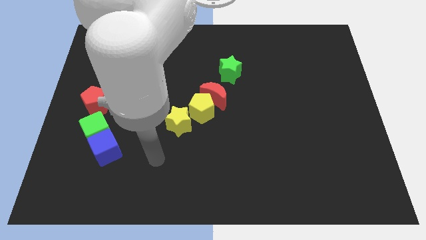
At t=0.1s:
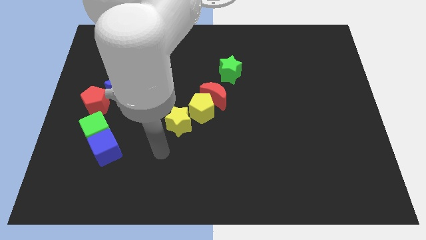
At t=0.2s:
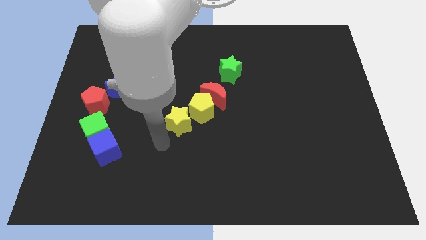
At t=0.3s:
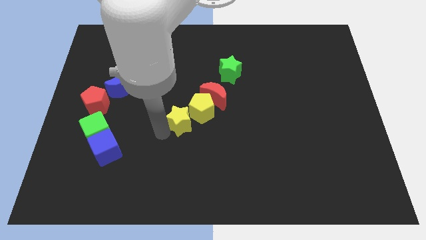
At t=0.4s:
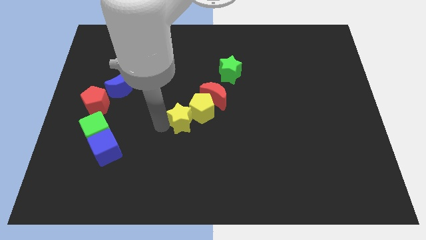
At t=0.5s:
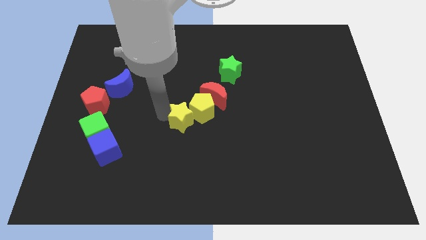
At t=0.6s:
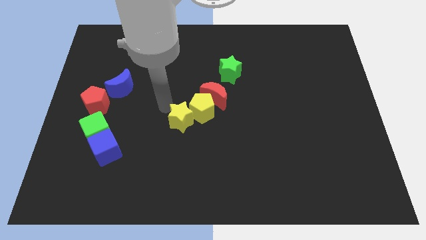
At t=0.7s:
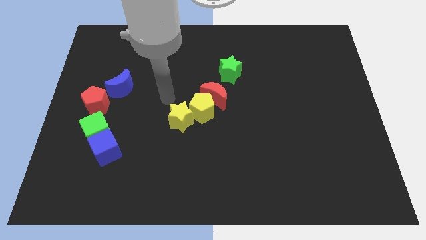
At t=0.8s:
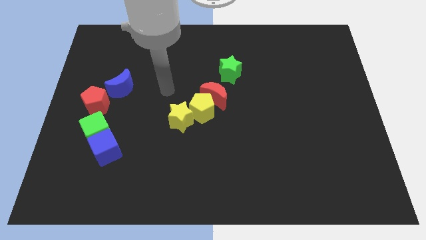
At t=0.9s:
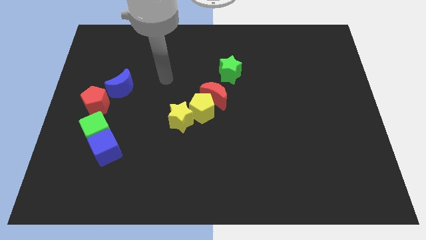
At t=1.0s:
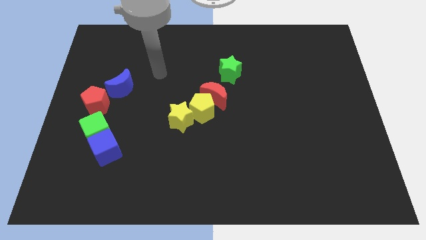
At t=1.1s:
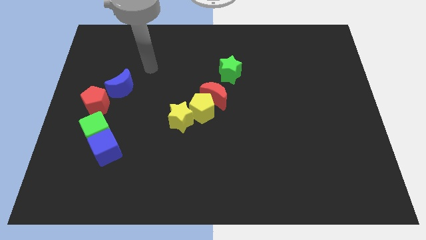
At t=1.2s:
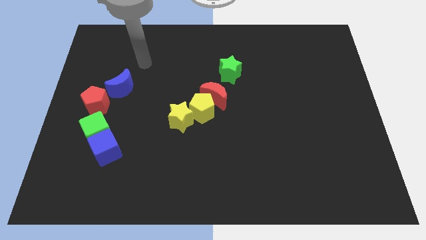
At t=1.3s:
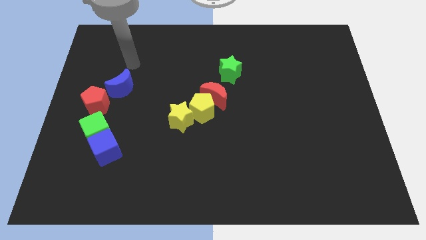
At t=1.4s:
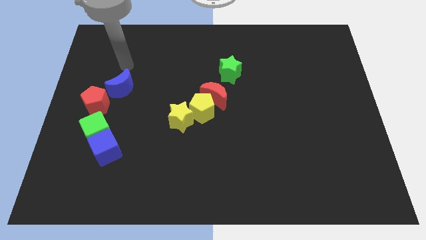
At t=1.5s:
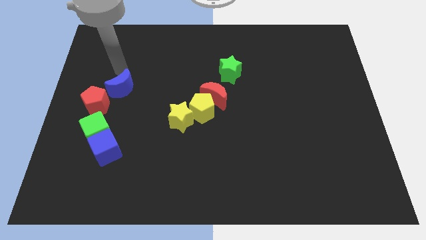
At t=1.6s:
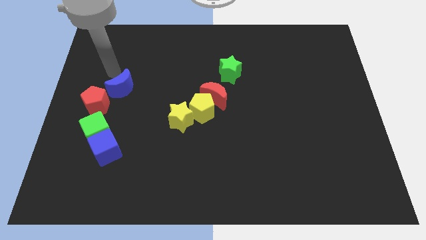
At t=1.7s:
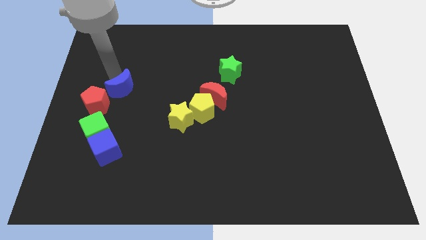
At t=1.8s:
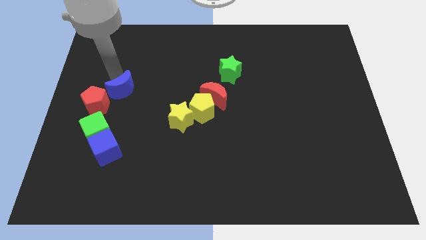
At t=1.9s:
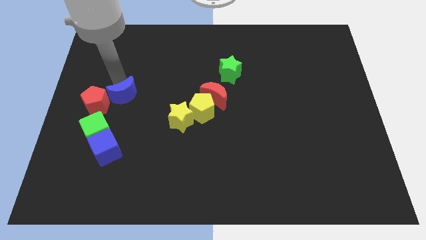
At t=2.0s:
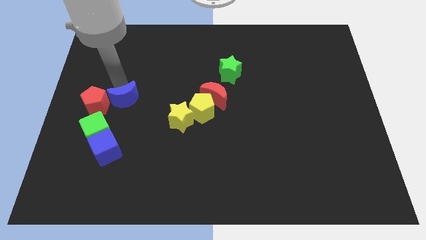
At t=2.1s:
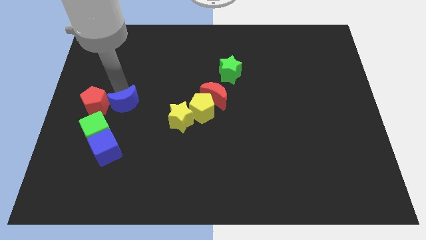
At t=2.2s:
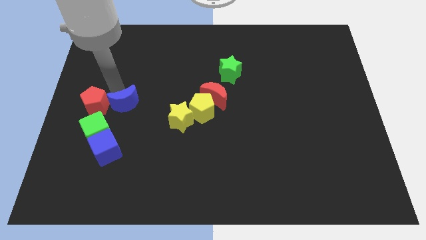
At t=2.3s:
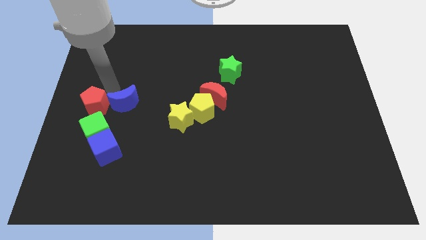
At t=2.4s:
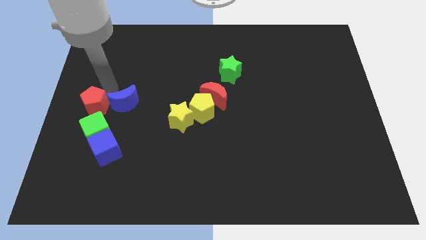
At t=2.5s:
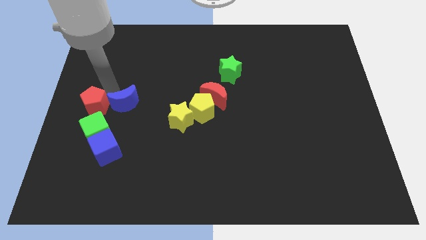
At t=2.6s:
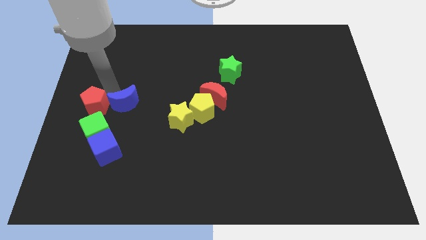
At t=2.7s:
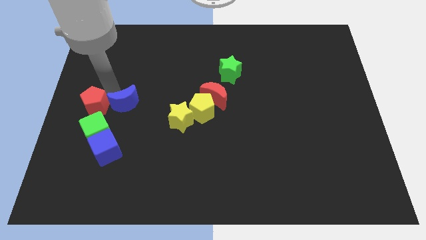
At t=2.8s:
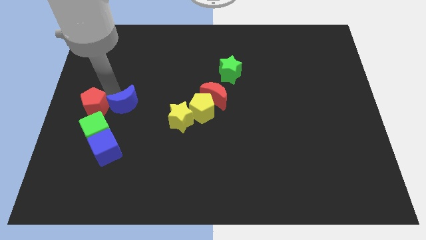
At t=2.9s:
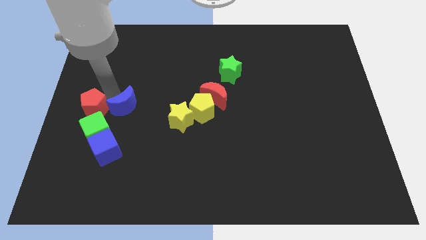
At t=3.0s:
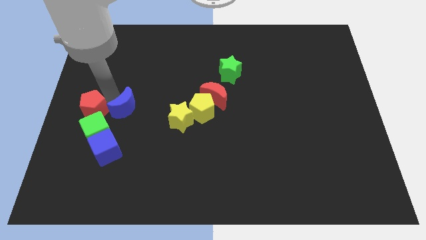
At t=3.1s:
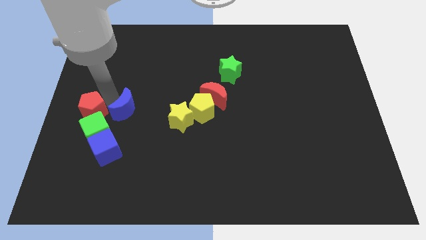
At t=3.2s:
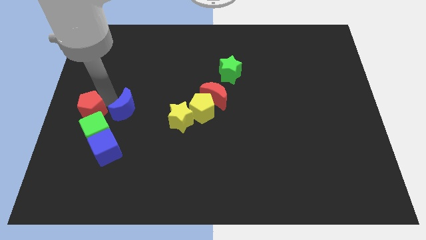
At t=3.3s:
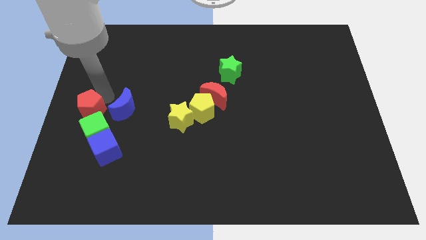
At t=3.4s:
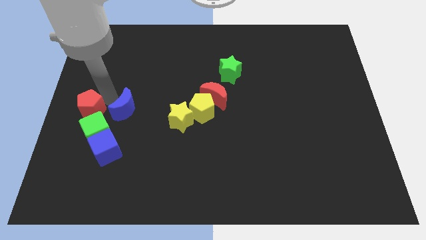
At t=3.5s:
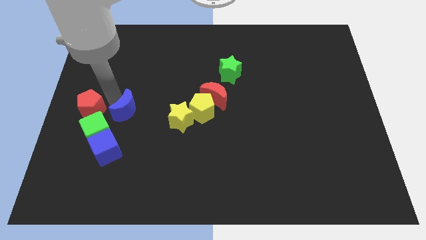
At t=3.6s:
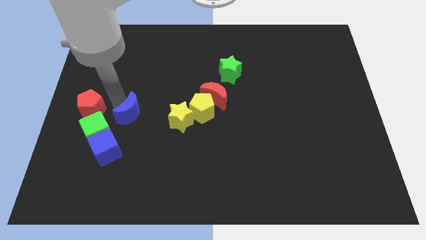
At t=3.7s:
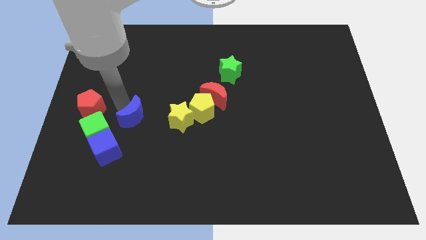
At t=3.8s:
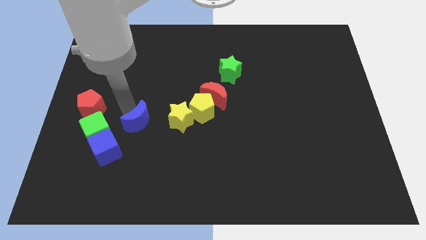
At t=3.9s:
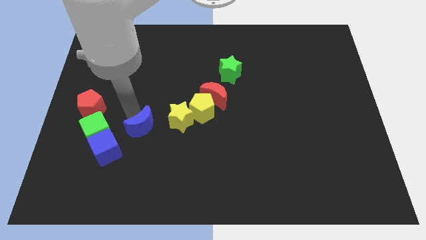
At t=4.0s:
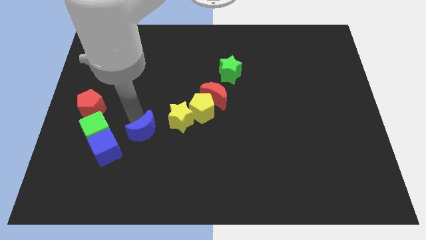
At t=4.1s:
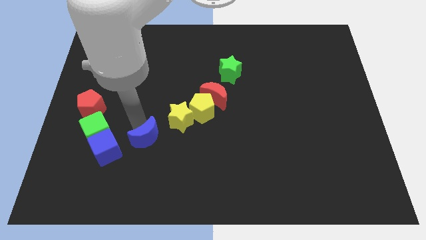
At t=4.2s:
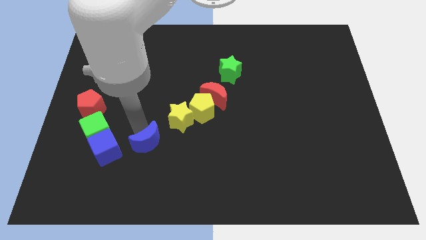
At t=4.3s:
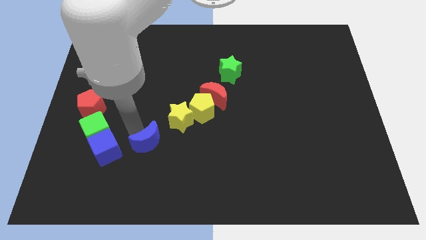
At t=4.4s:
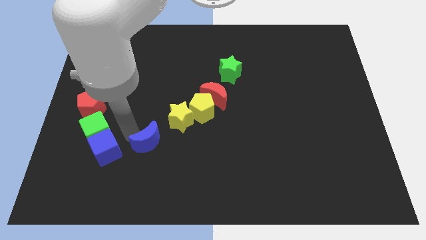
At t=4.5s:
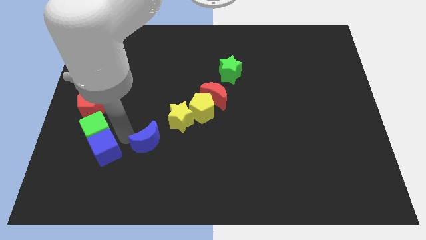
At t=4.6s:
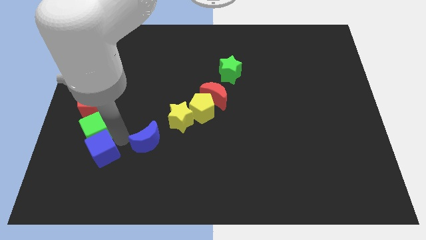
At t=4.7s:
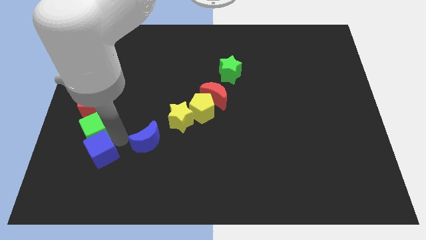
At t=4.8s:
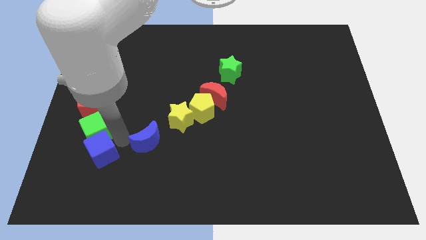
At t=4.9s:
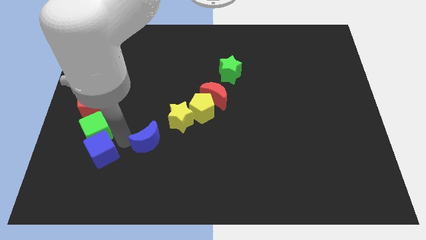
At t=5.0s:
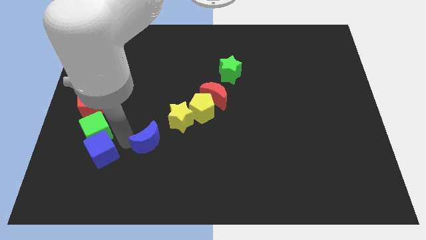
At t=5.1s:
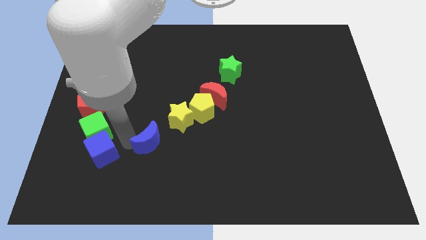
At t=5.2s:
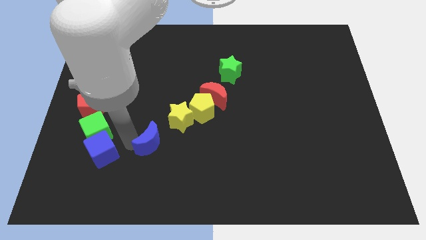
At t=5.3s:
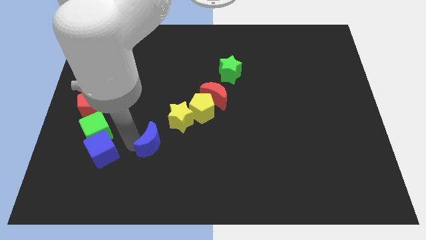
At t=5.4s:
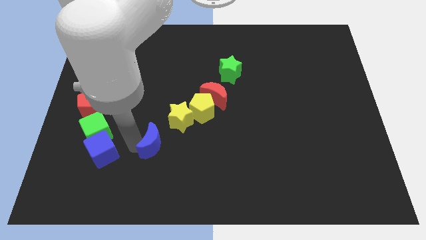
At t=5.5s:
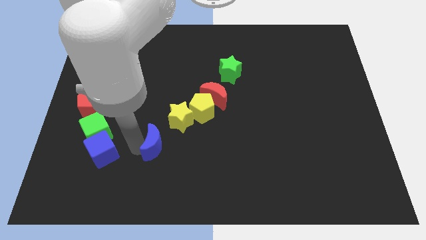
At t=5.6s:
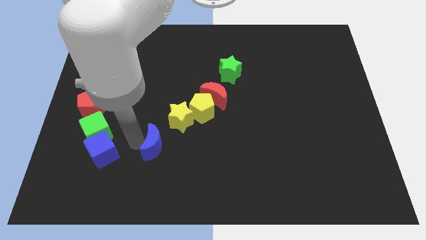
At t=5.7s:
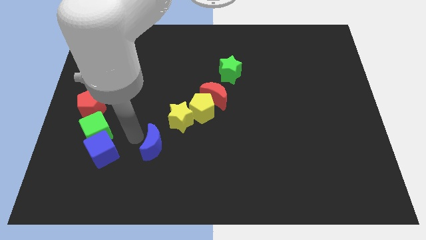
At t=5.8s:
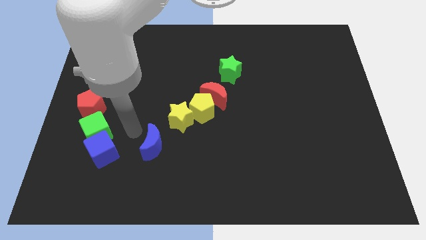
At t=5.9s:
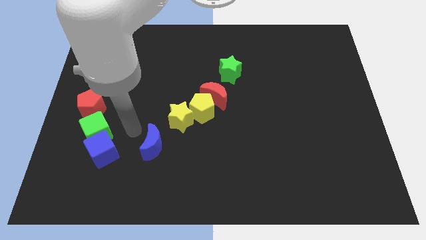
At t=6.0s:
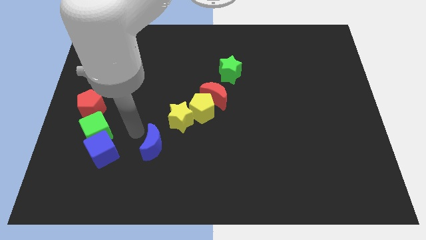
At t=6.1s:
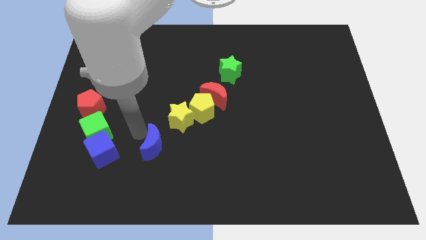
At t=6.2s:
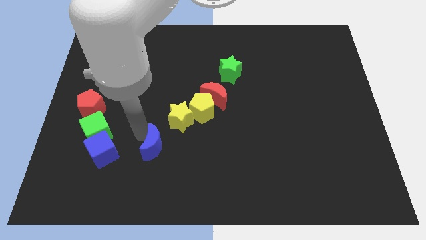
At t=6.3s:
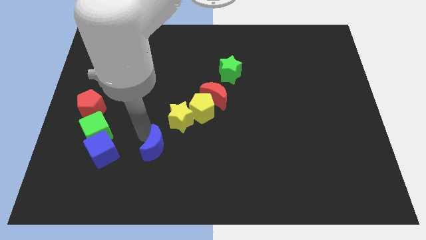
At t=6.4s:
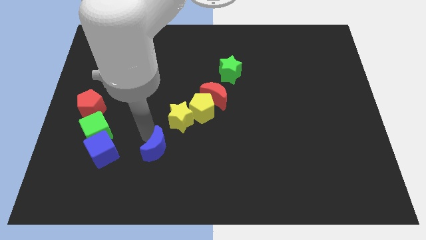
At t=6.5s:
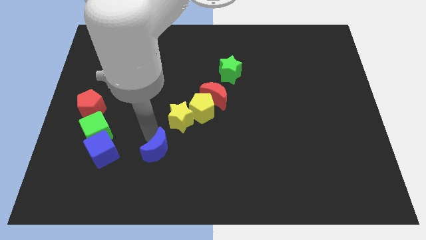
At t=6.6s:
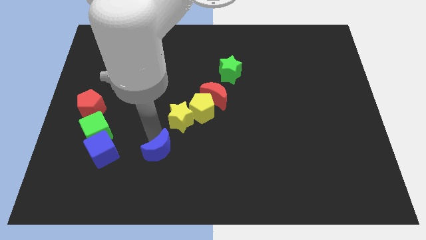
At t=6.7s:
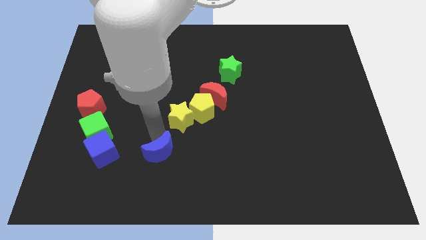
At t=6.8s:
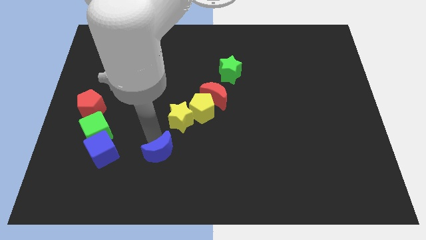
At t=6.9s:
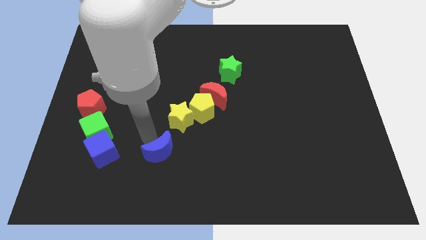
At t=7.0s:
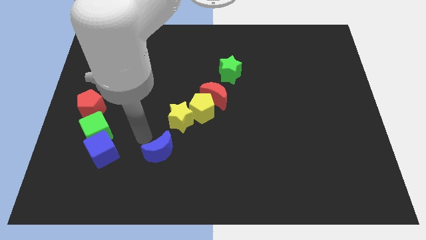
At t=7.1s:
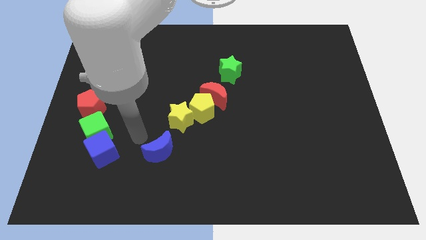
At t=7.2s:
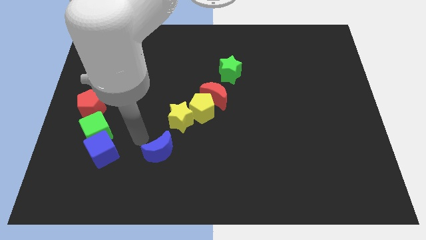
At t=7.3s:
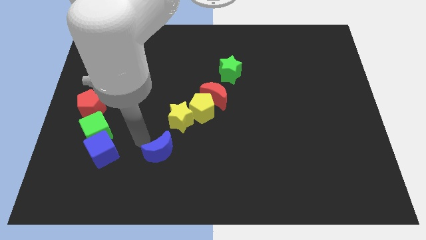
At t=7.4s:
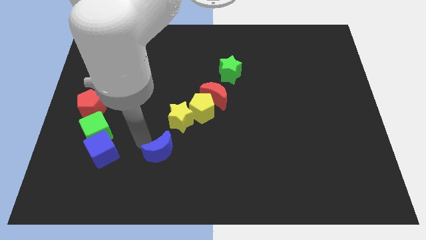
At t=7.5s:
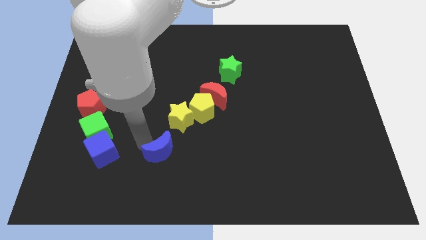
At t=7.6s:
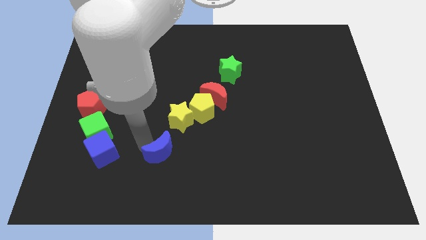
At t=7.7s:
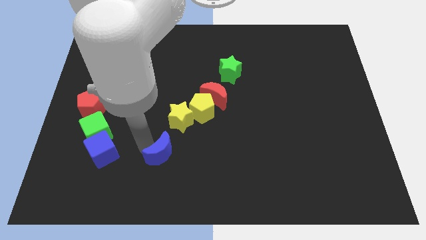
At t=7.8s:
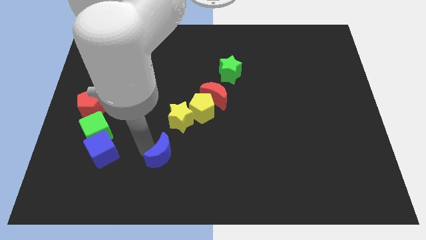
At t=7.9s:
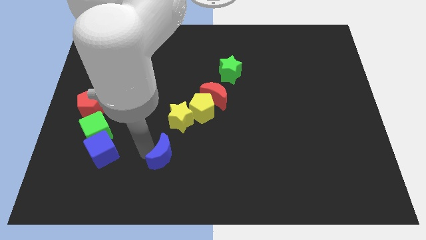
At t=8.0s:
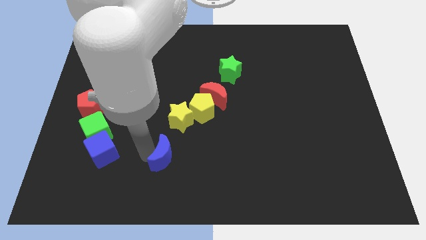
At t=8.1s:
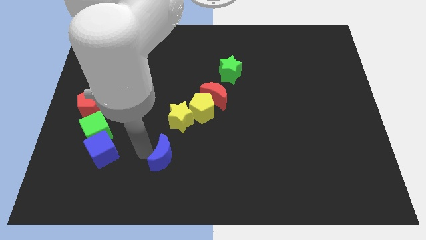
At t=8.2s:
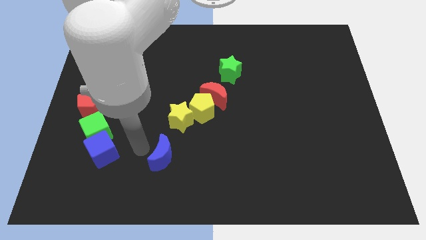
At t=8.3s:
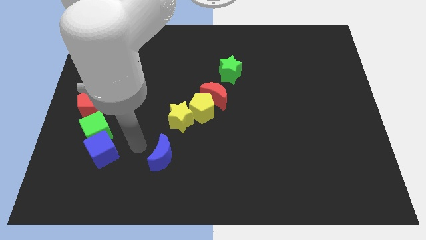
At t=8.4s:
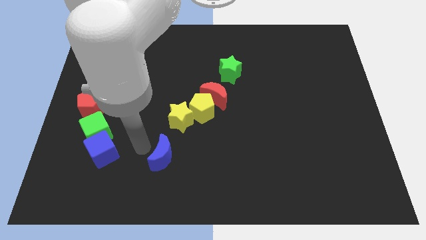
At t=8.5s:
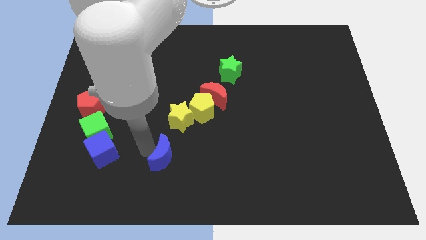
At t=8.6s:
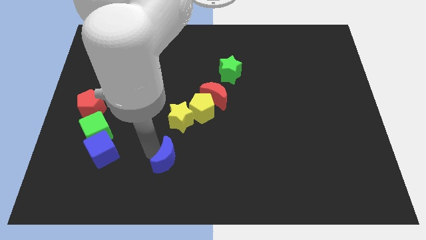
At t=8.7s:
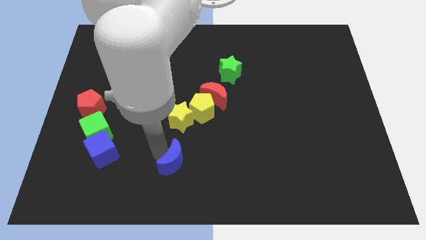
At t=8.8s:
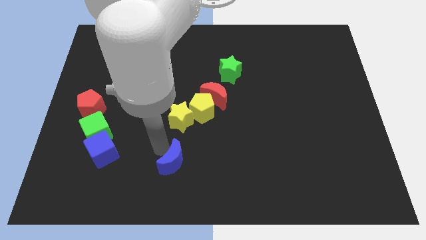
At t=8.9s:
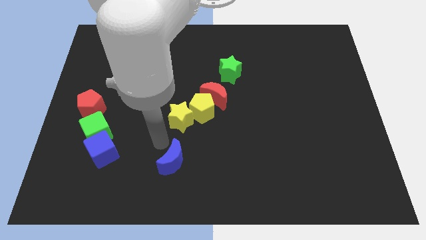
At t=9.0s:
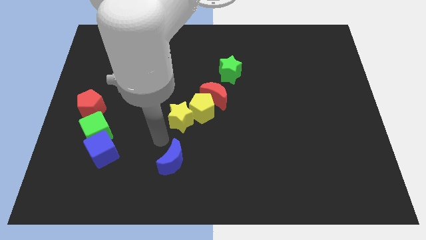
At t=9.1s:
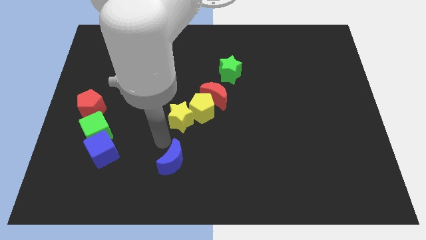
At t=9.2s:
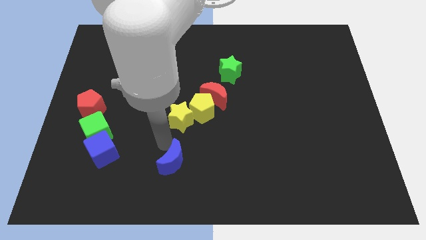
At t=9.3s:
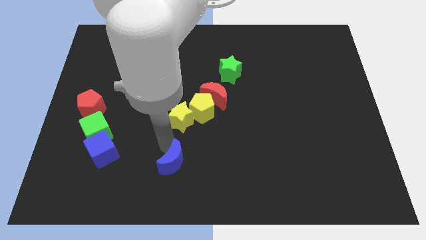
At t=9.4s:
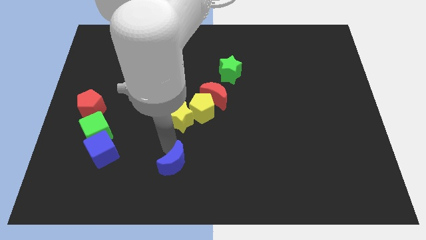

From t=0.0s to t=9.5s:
move the blue moon to the bottom
